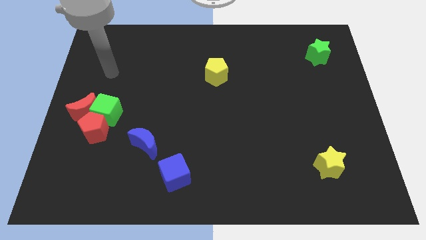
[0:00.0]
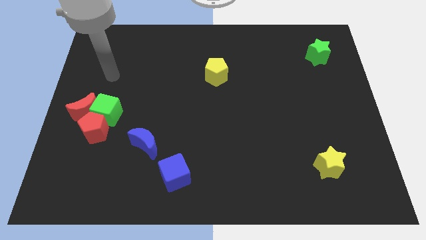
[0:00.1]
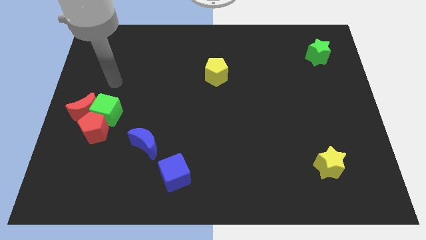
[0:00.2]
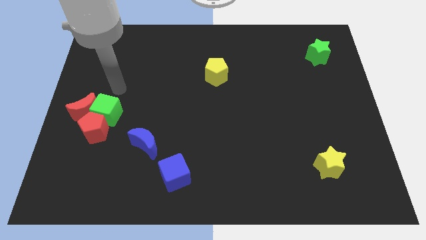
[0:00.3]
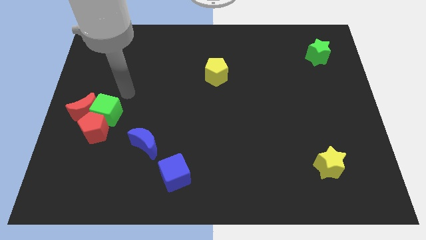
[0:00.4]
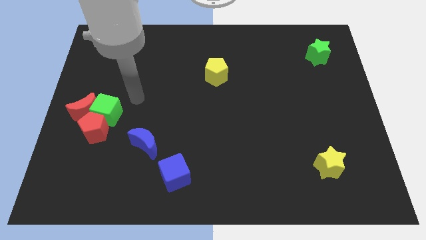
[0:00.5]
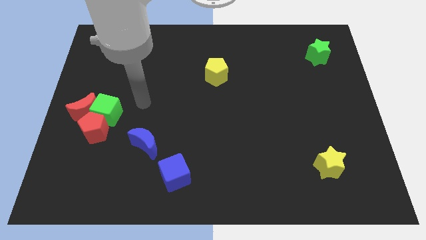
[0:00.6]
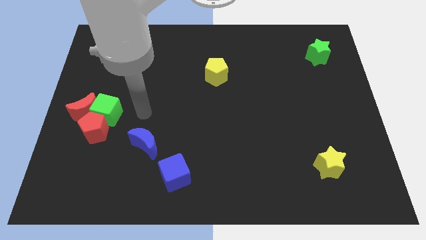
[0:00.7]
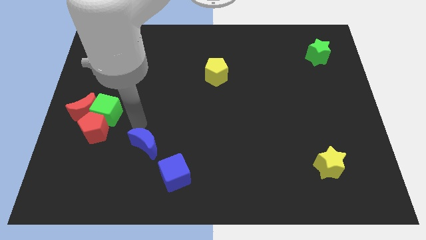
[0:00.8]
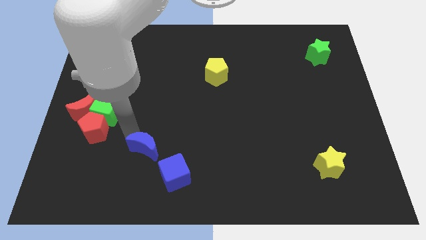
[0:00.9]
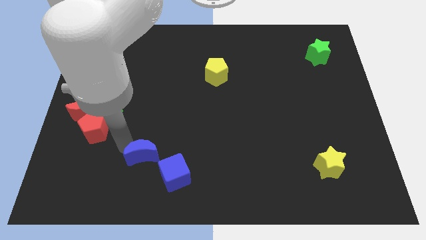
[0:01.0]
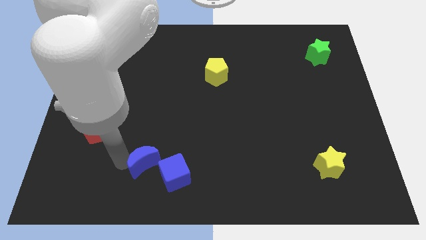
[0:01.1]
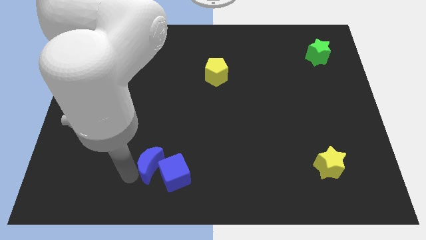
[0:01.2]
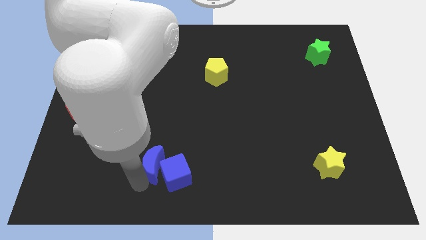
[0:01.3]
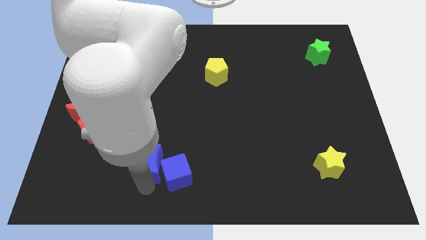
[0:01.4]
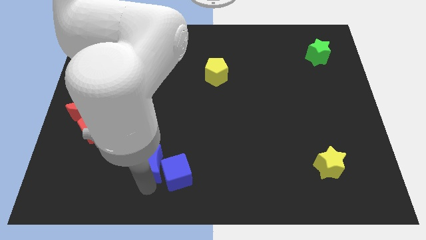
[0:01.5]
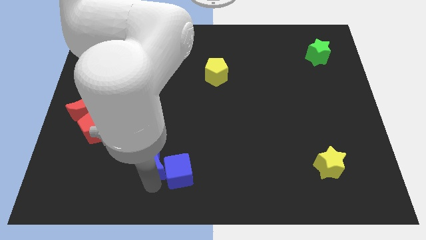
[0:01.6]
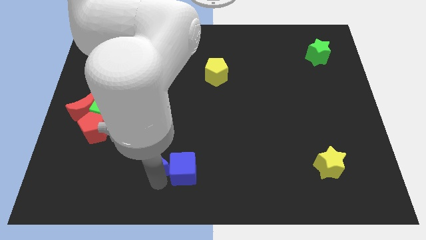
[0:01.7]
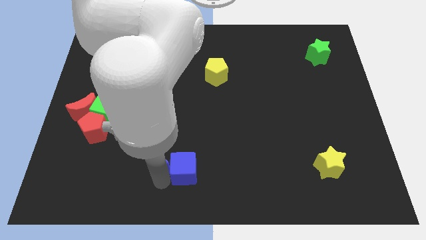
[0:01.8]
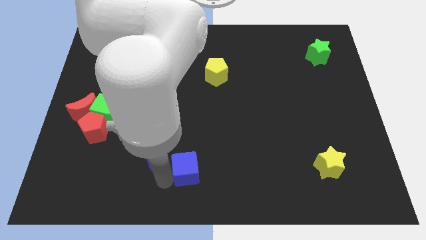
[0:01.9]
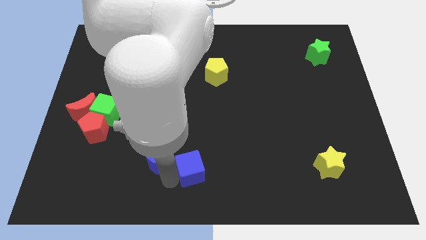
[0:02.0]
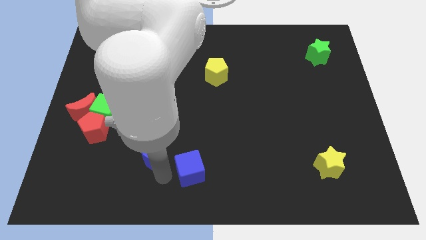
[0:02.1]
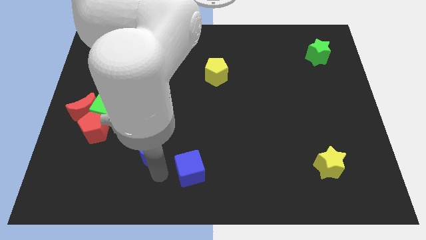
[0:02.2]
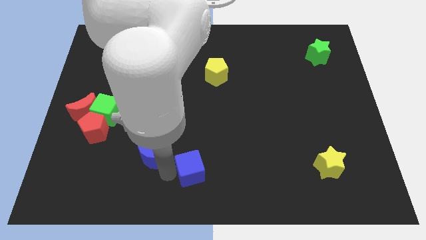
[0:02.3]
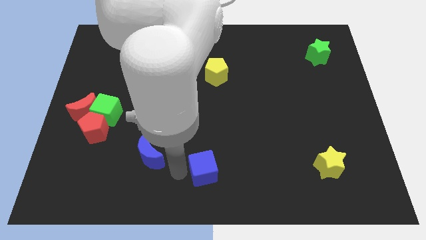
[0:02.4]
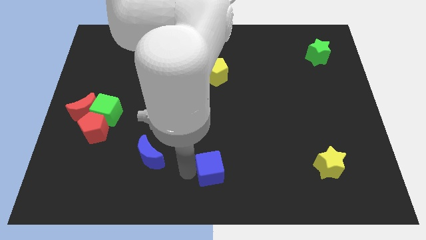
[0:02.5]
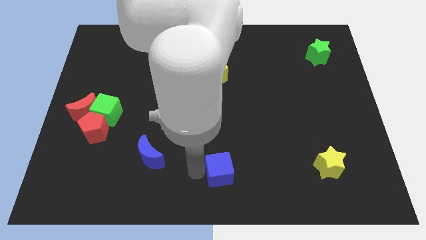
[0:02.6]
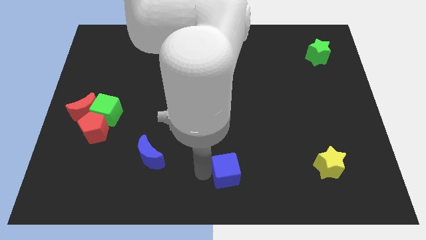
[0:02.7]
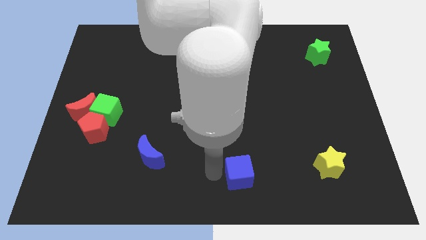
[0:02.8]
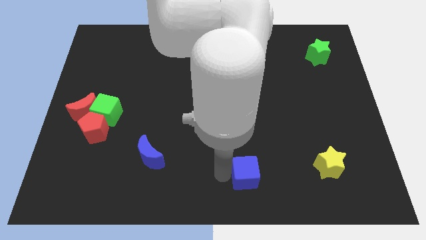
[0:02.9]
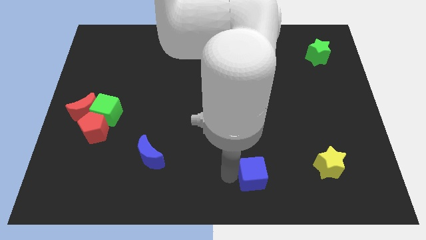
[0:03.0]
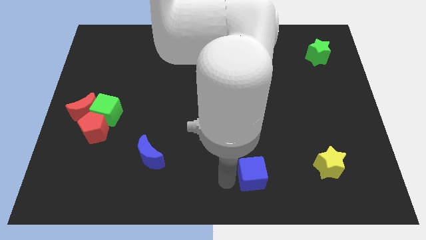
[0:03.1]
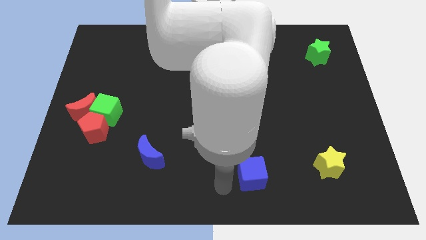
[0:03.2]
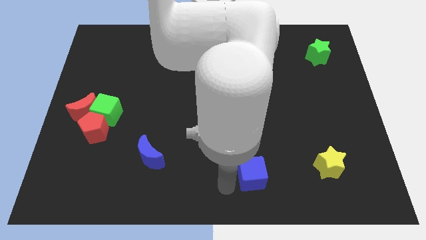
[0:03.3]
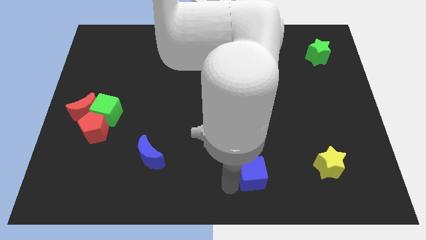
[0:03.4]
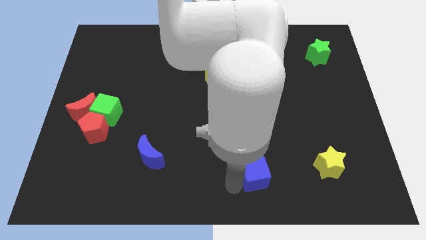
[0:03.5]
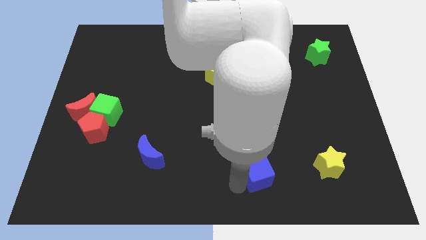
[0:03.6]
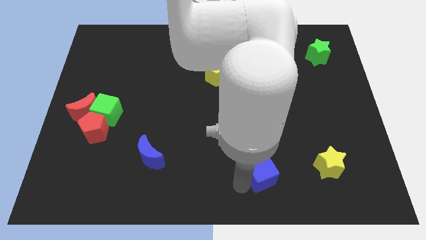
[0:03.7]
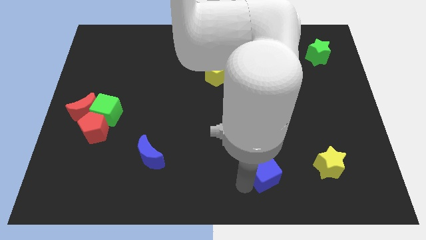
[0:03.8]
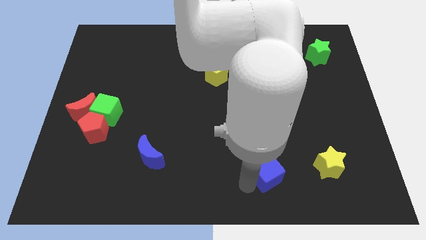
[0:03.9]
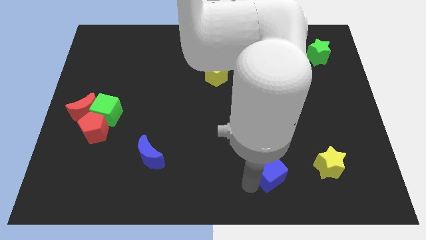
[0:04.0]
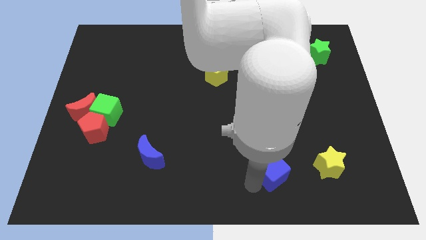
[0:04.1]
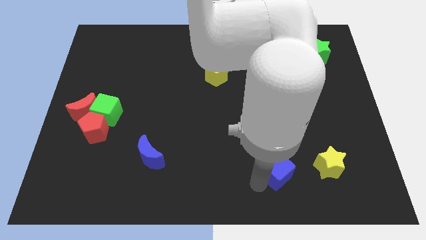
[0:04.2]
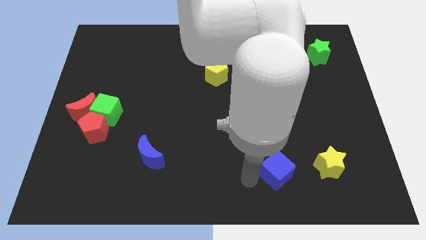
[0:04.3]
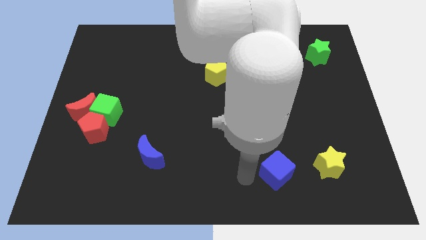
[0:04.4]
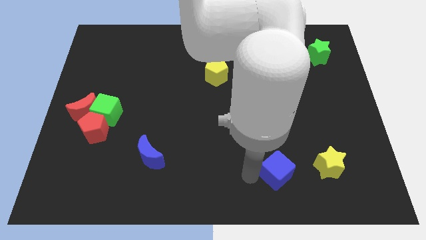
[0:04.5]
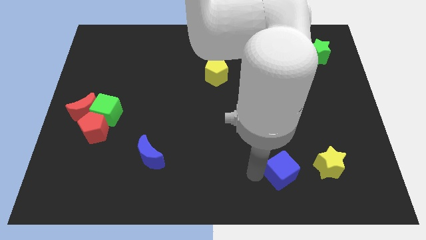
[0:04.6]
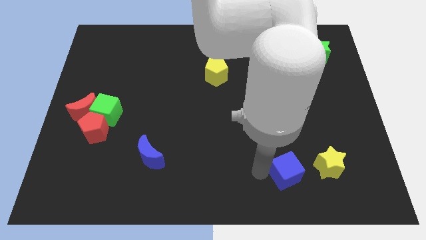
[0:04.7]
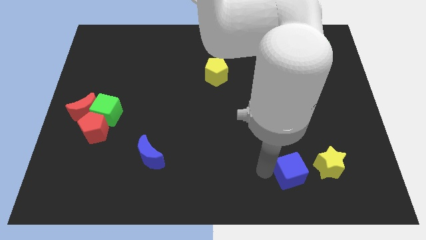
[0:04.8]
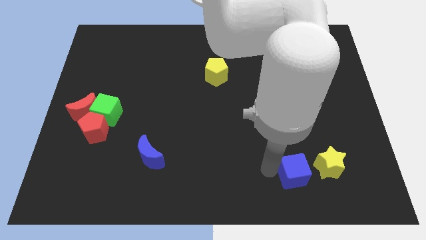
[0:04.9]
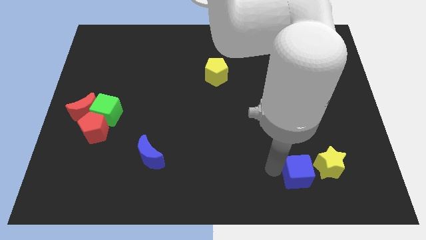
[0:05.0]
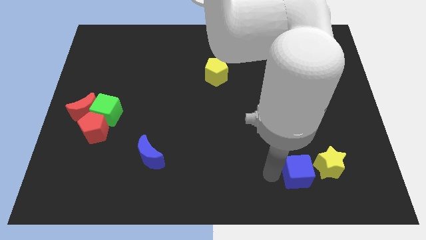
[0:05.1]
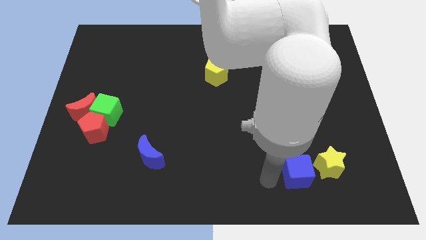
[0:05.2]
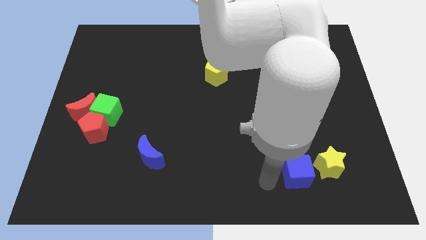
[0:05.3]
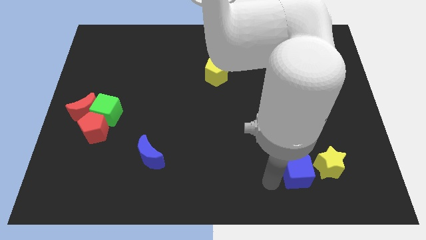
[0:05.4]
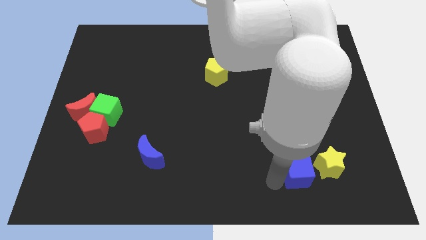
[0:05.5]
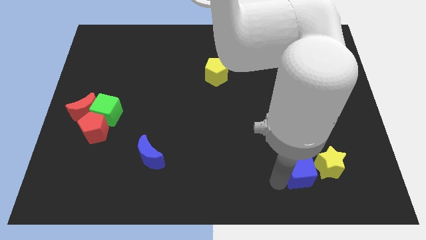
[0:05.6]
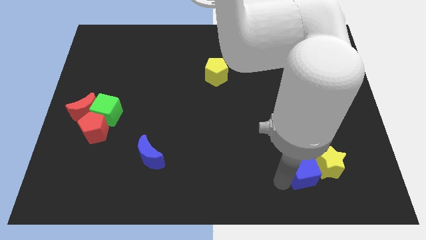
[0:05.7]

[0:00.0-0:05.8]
move the blue cube towards the yellow star

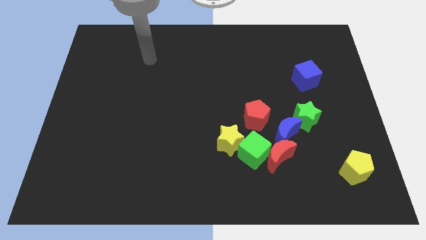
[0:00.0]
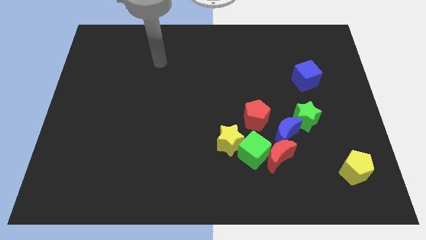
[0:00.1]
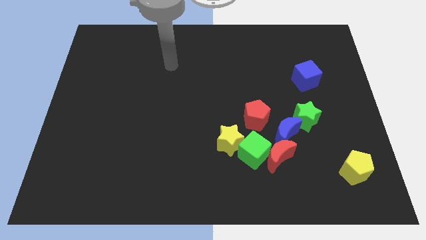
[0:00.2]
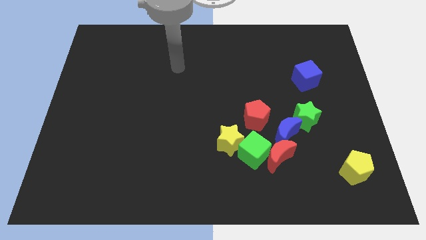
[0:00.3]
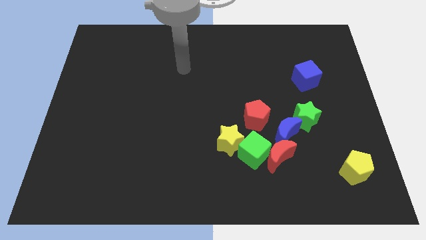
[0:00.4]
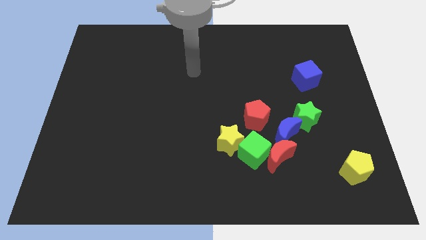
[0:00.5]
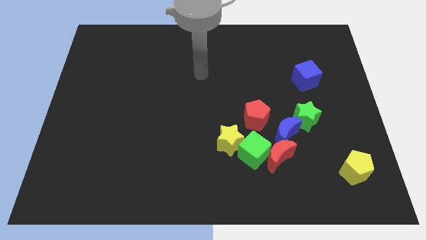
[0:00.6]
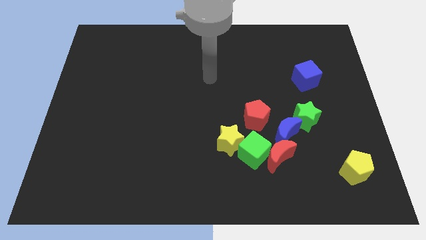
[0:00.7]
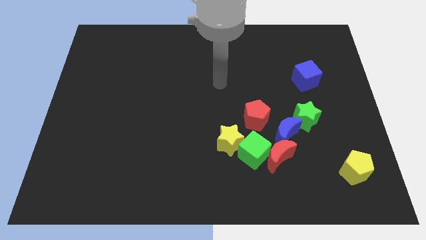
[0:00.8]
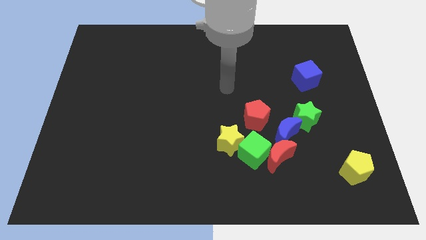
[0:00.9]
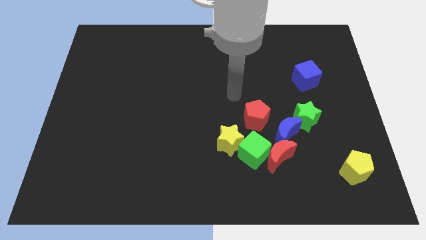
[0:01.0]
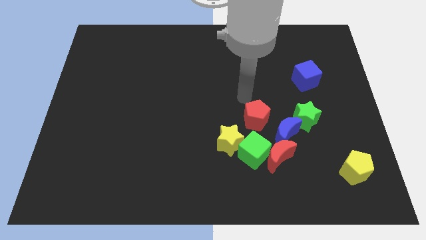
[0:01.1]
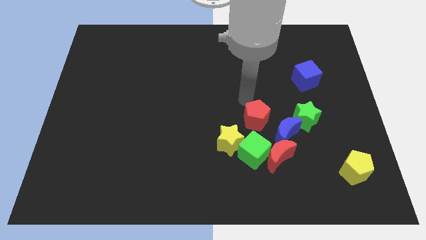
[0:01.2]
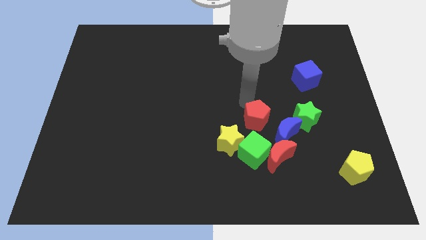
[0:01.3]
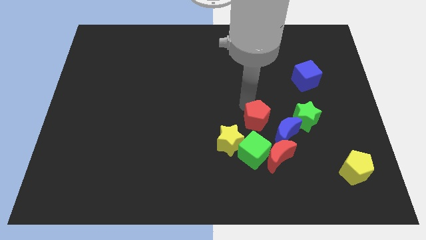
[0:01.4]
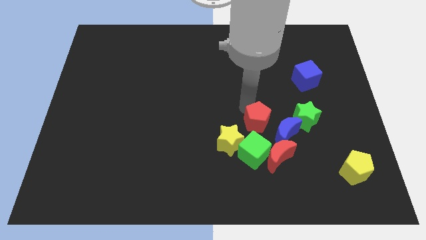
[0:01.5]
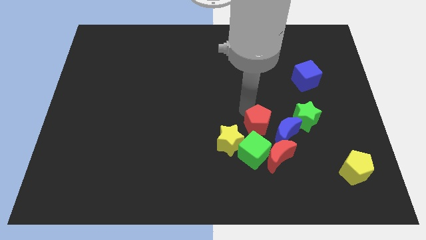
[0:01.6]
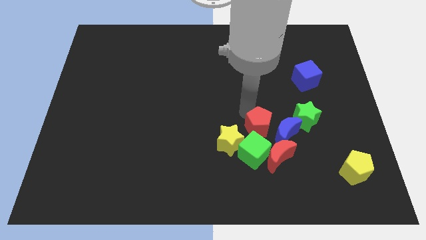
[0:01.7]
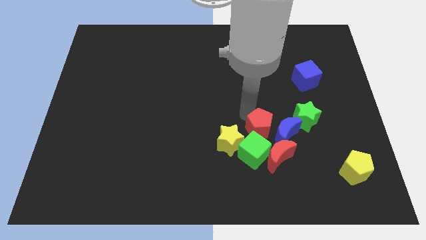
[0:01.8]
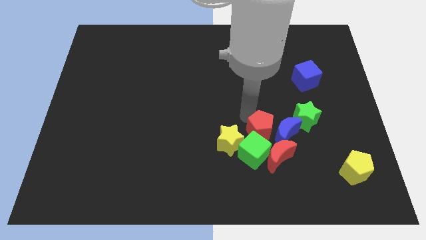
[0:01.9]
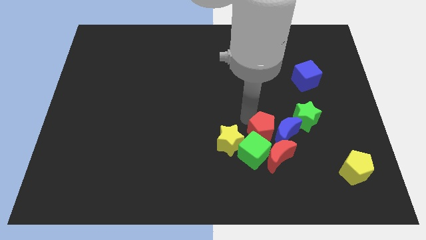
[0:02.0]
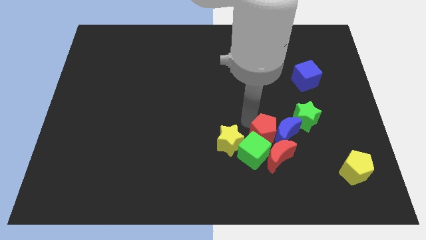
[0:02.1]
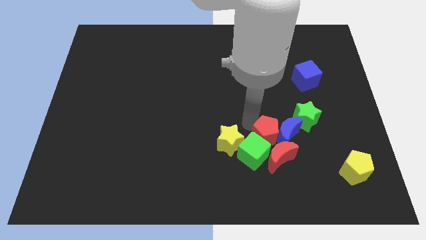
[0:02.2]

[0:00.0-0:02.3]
move the red pentagon next to the red moon
